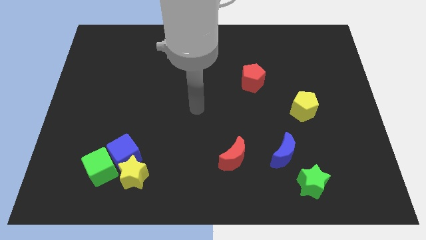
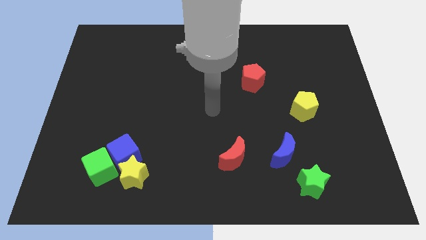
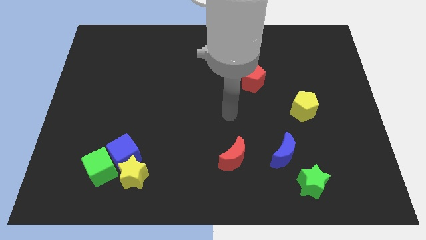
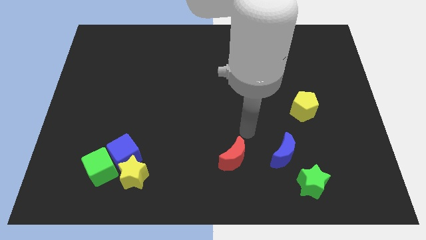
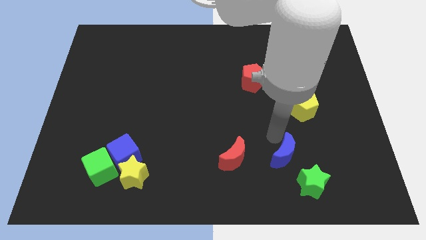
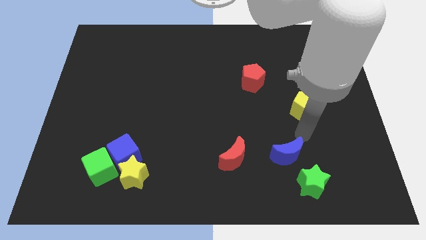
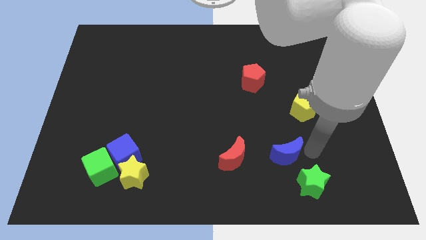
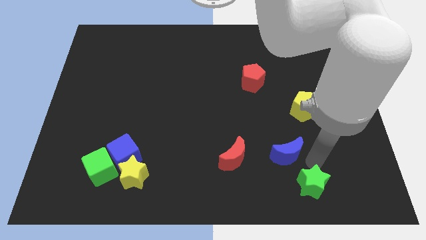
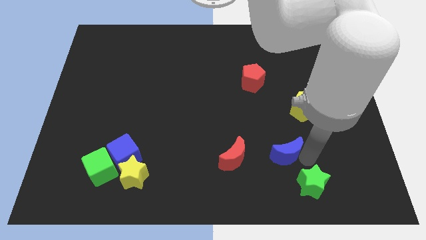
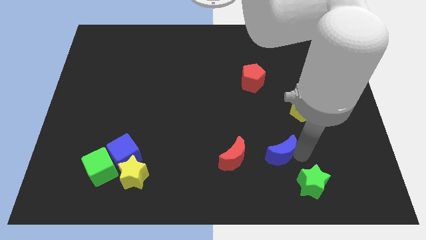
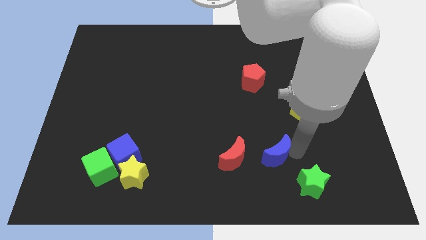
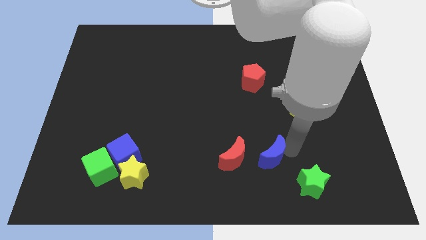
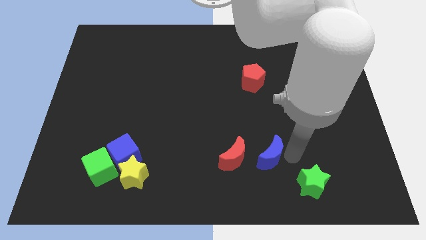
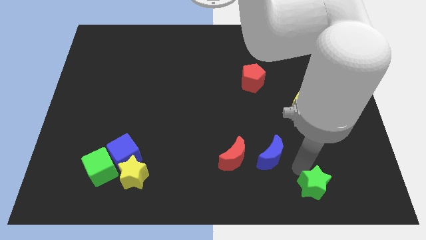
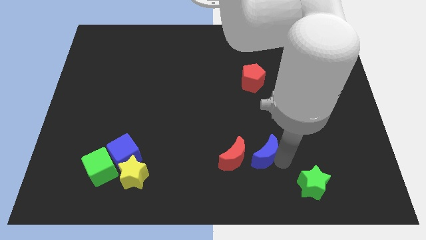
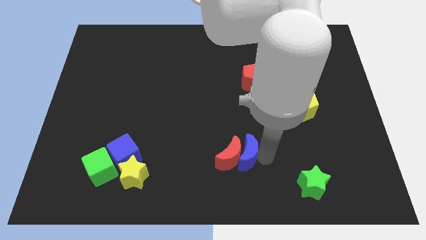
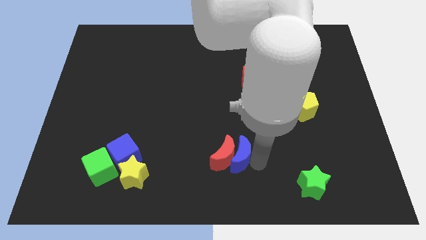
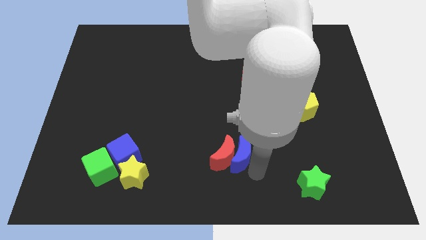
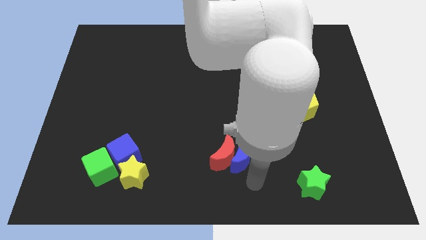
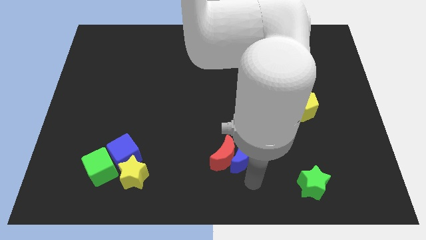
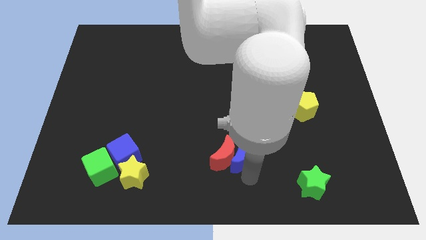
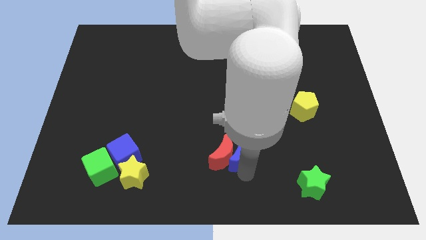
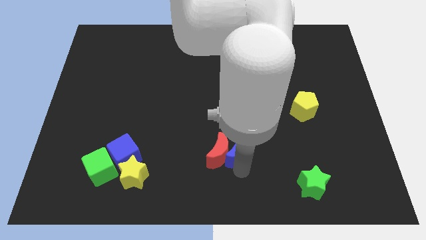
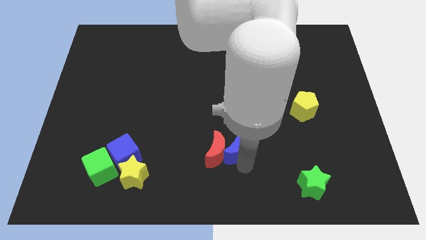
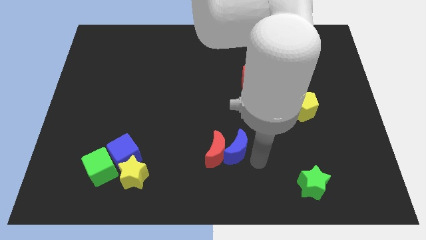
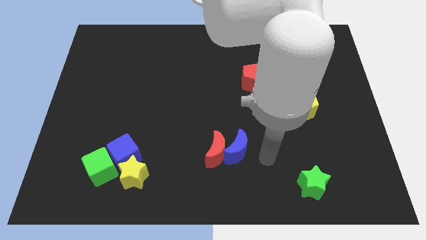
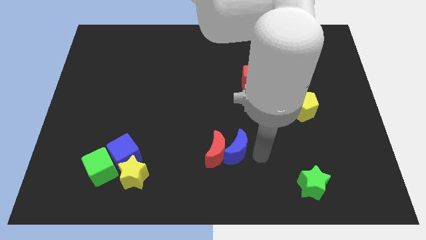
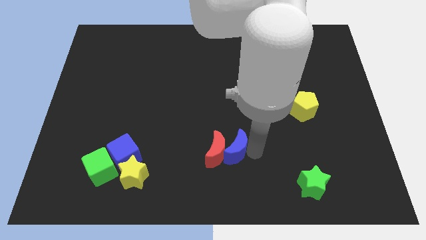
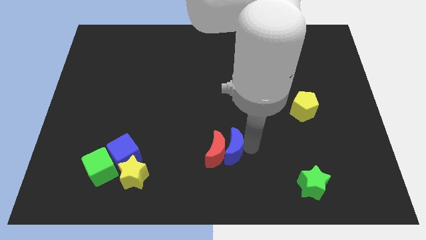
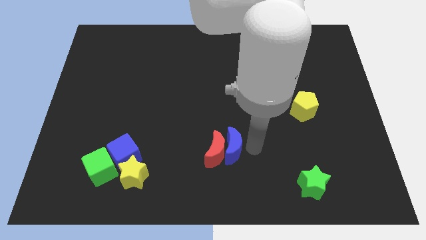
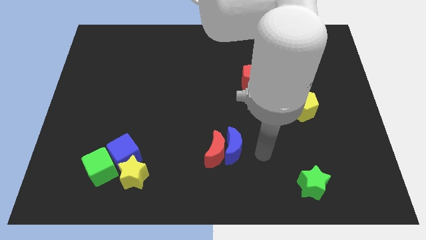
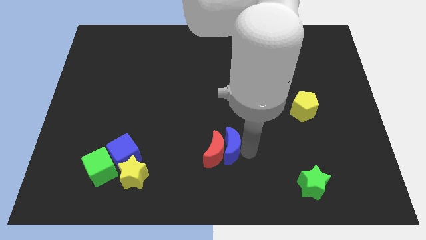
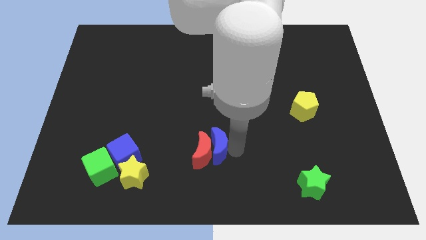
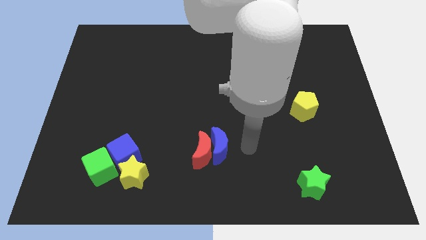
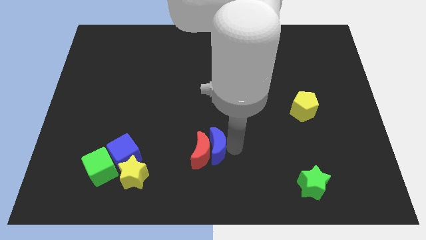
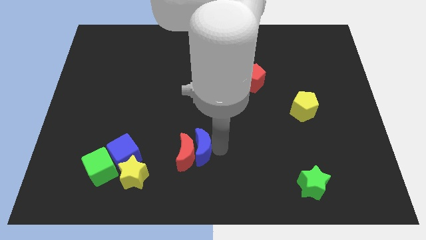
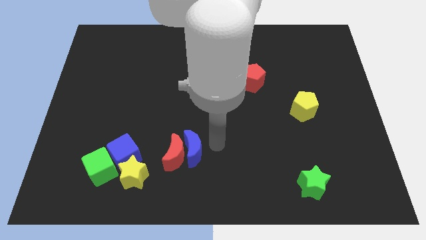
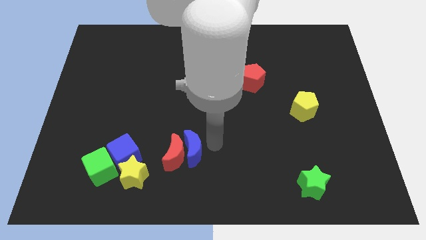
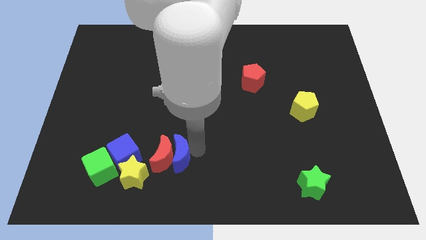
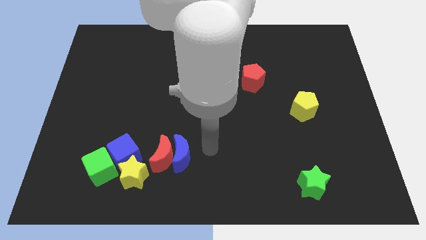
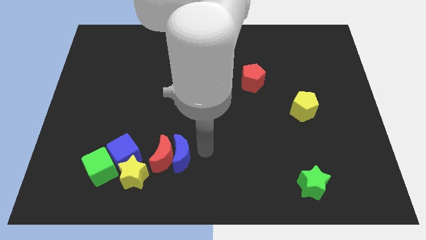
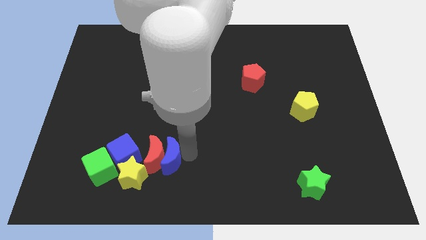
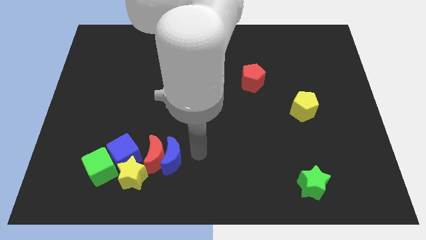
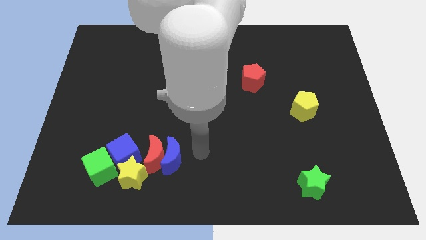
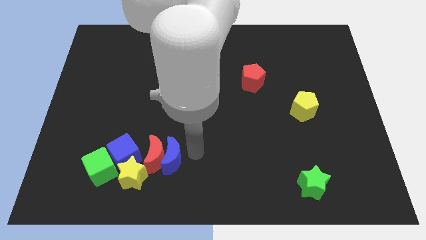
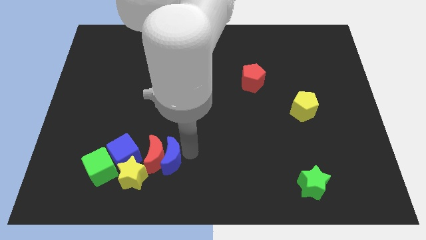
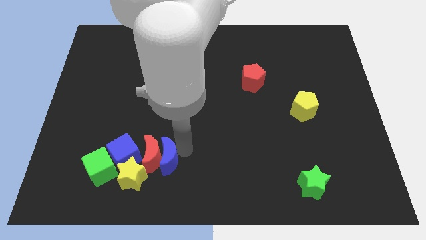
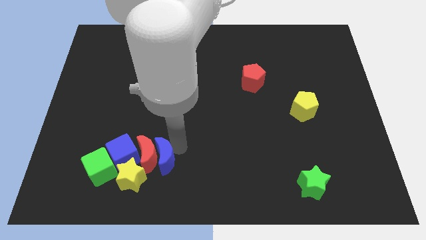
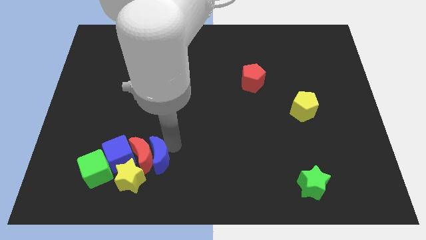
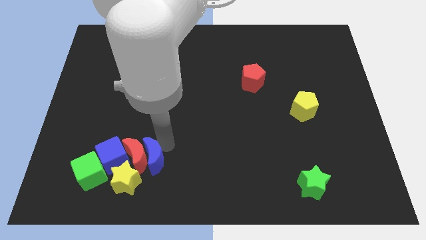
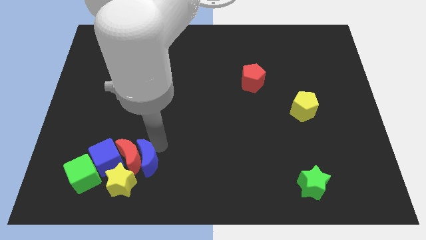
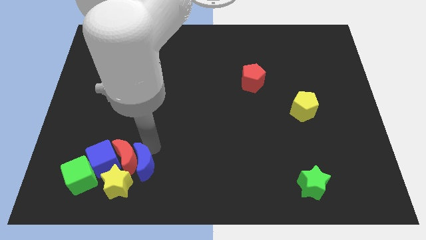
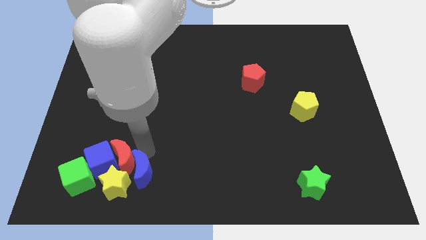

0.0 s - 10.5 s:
move the blue moon next to the yellow star

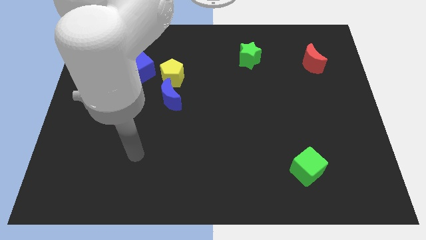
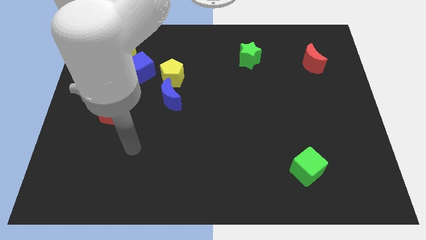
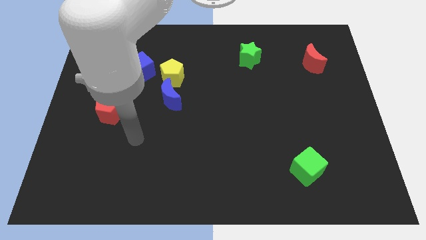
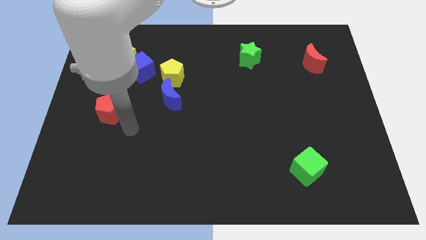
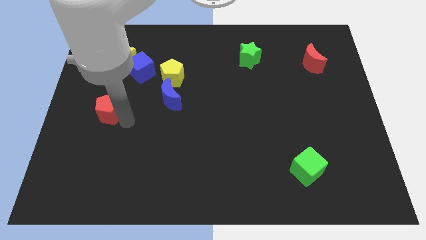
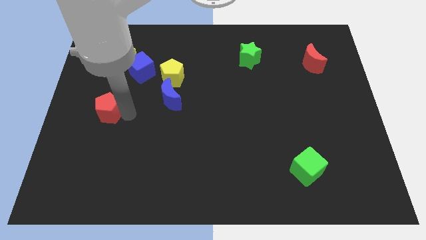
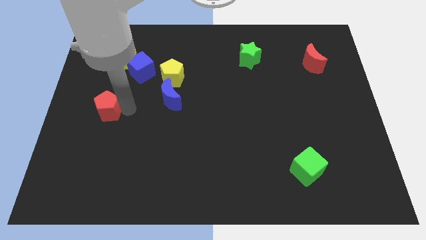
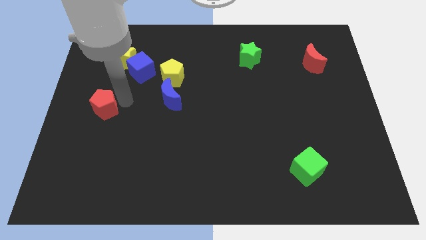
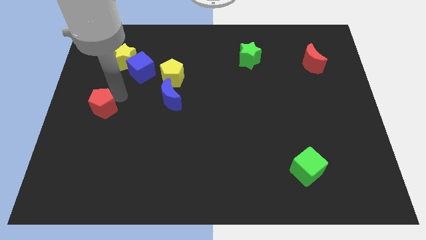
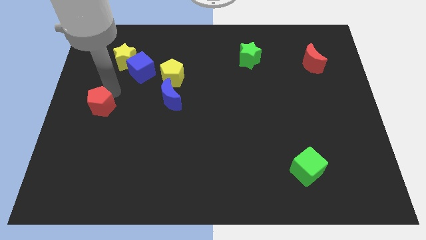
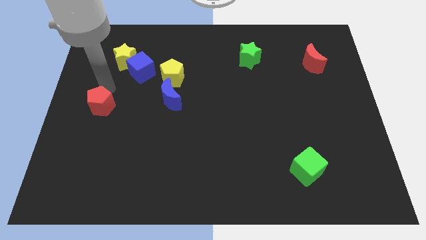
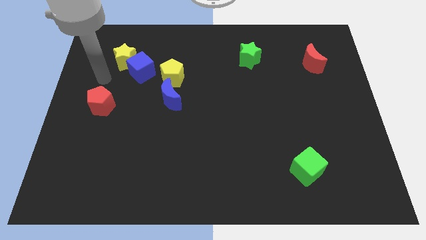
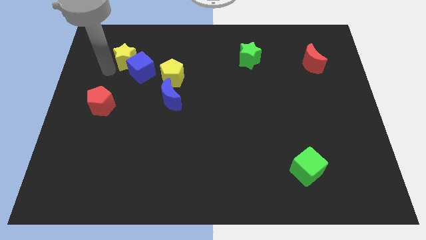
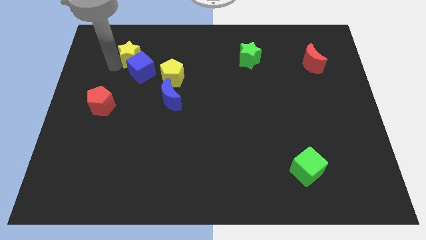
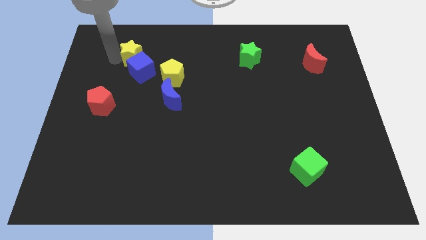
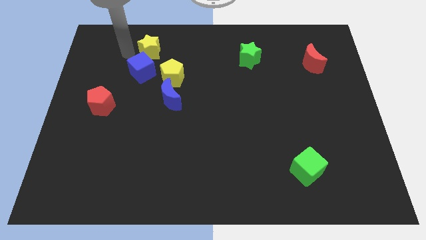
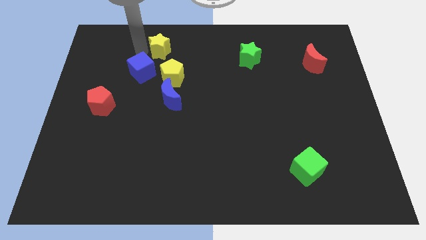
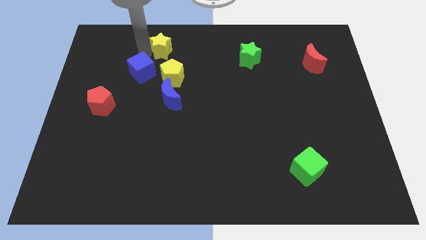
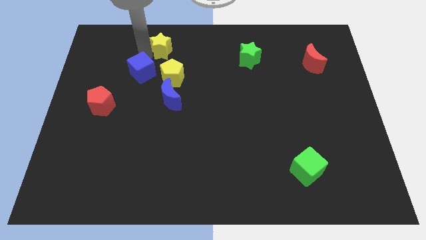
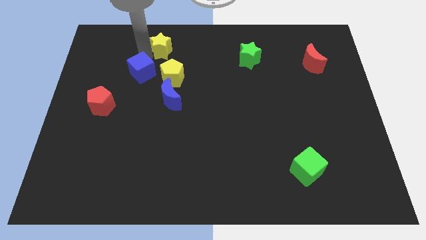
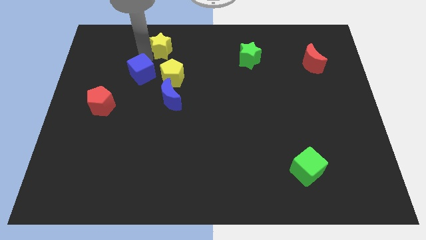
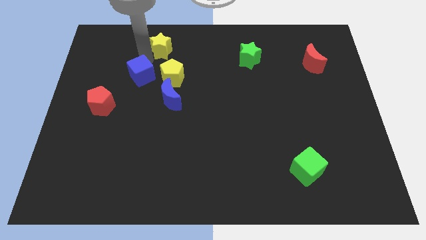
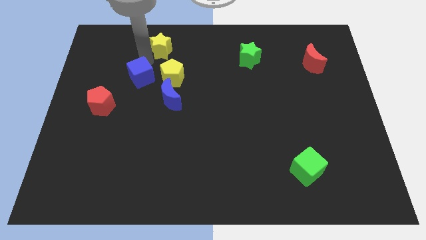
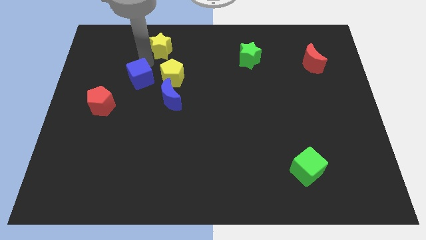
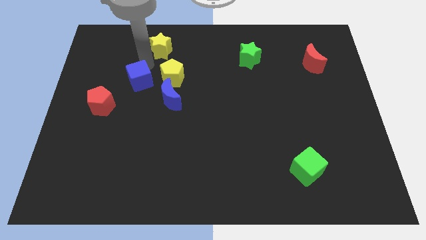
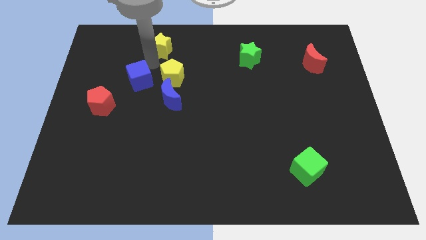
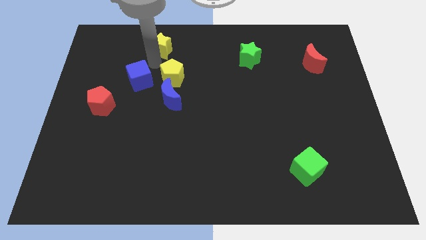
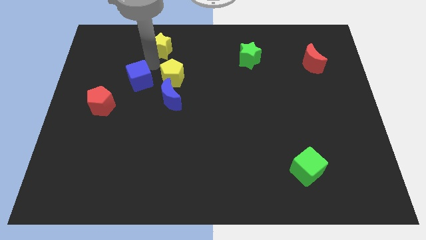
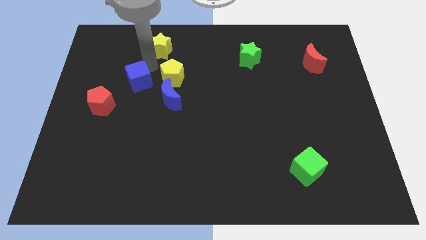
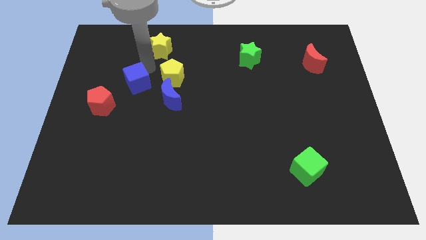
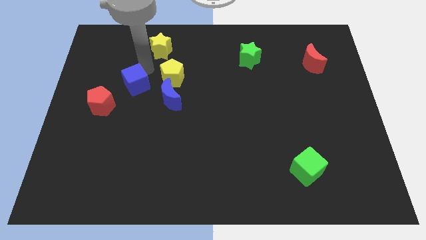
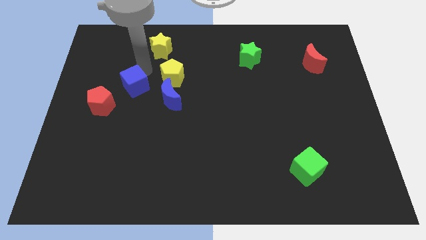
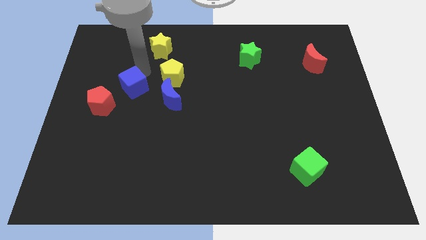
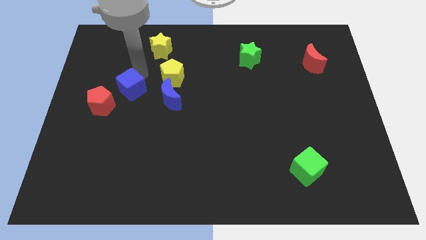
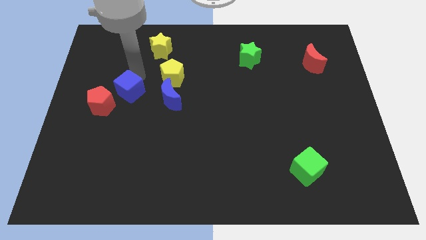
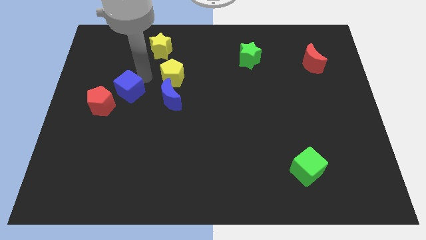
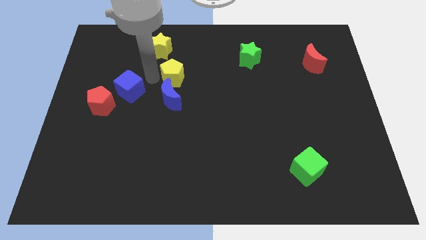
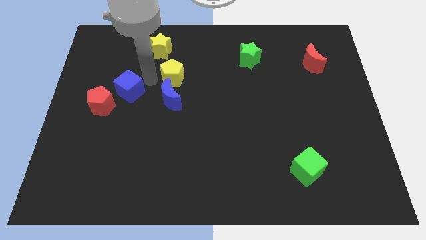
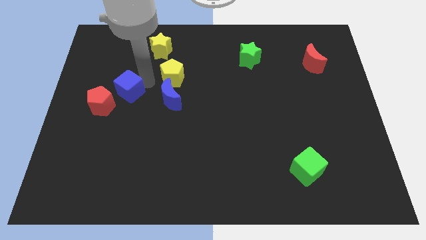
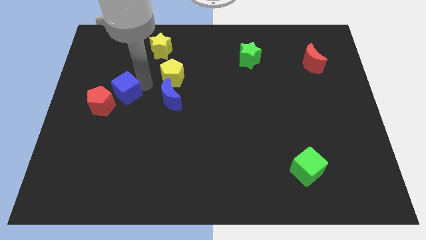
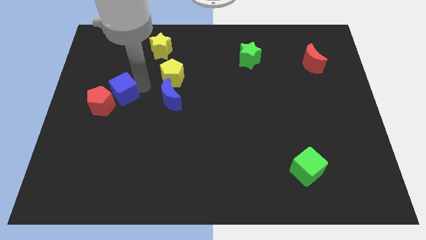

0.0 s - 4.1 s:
put the blue cube to the red pentagon
